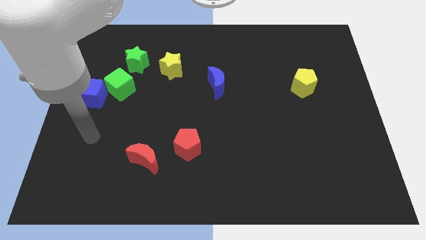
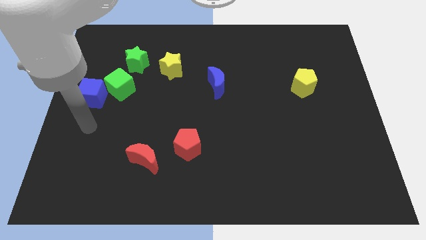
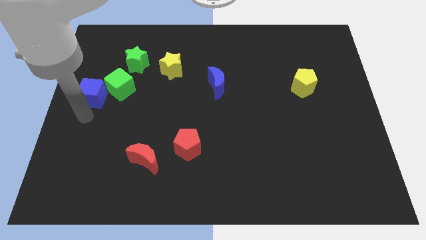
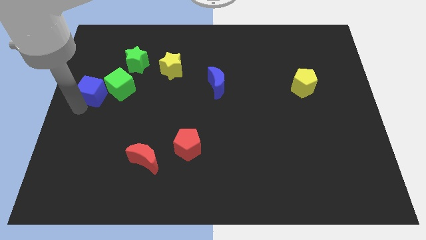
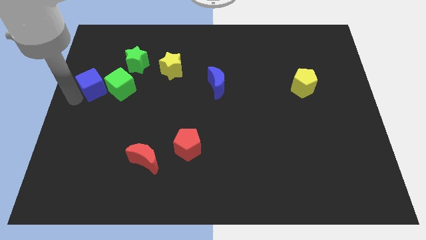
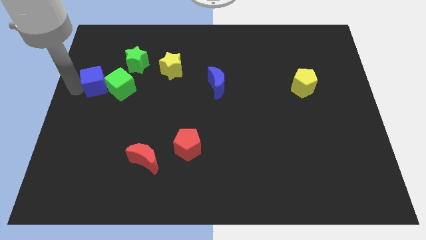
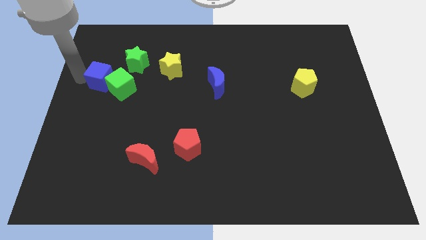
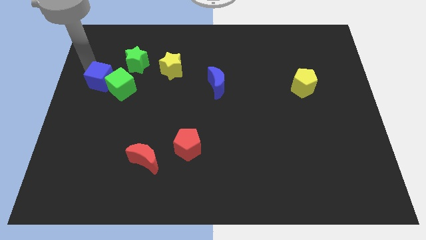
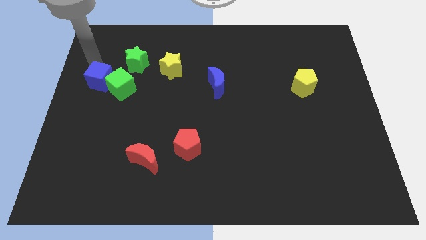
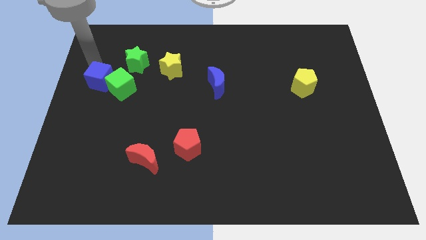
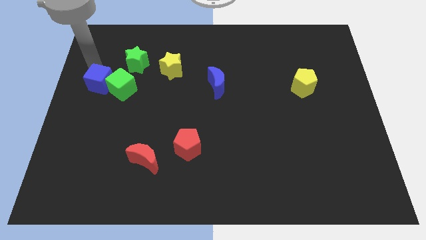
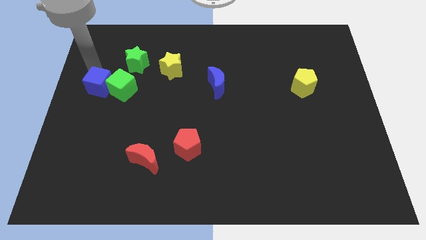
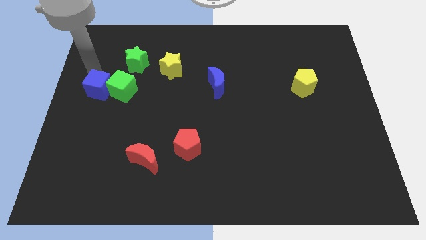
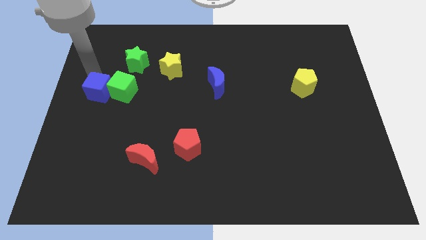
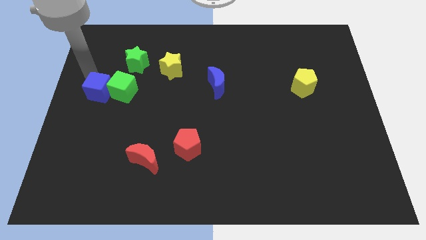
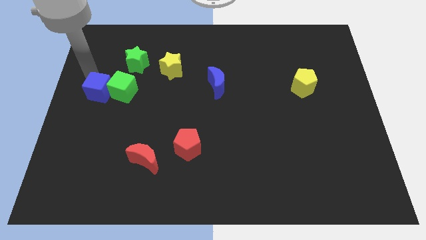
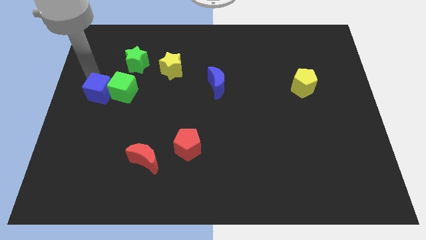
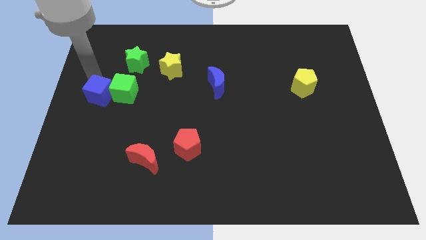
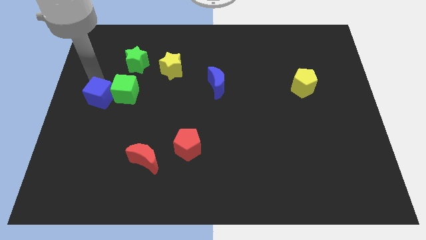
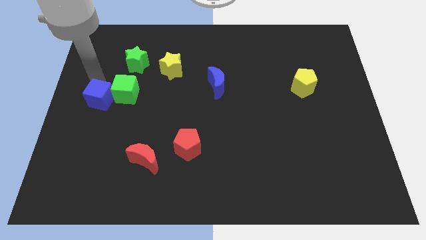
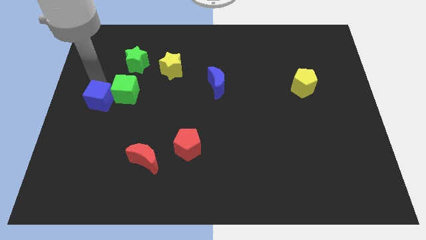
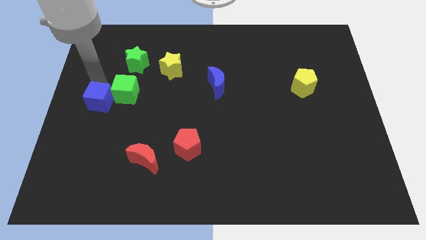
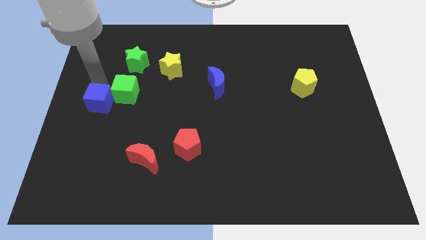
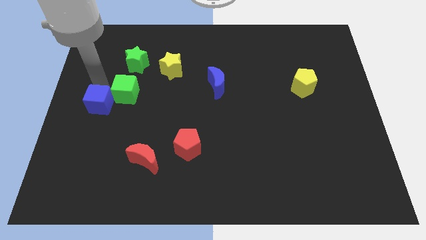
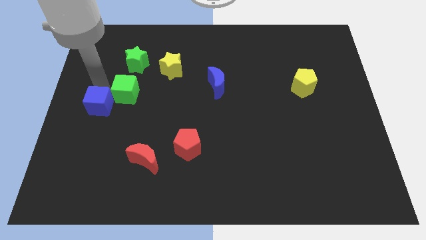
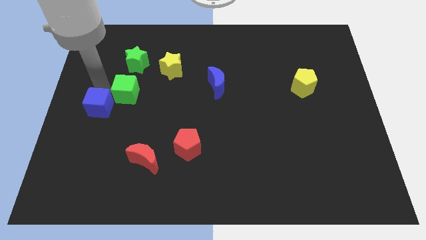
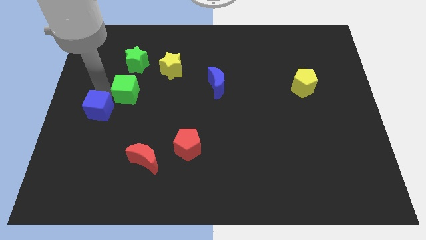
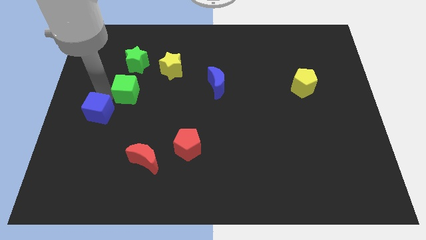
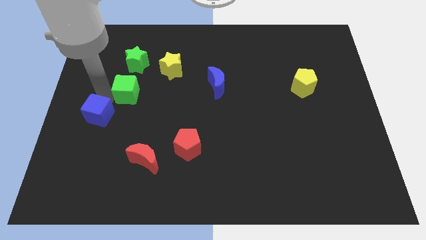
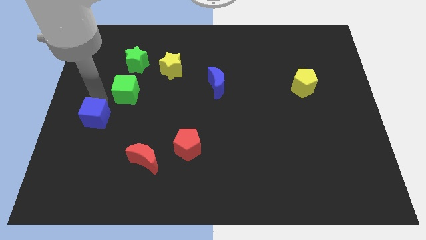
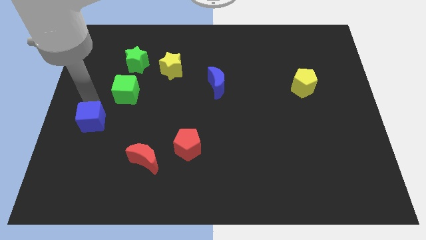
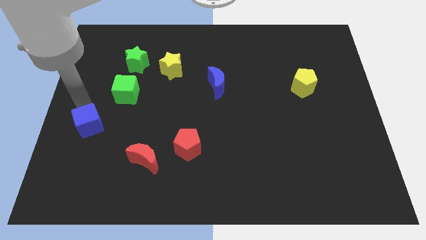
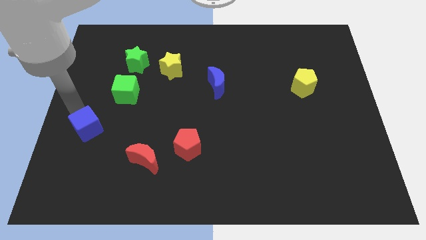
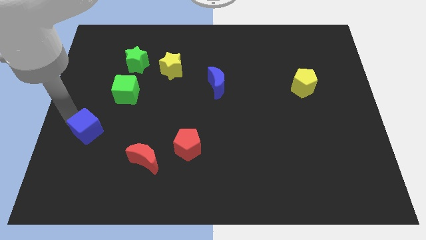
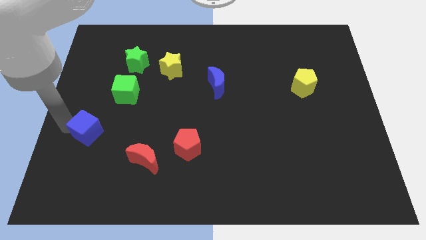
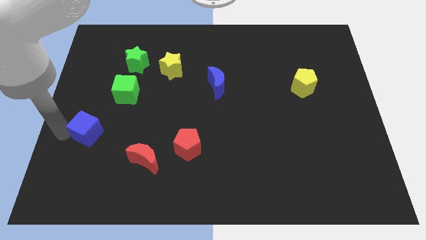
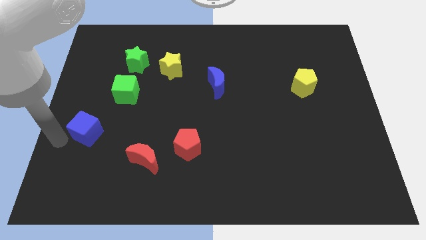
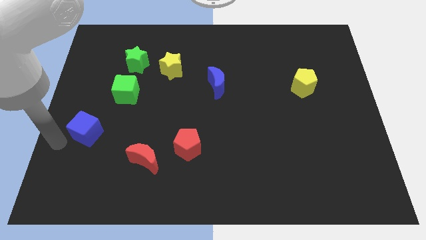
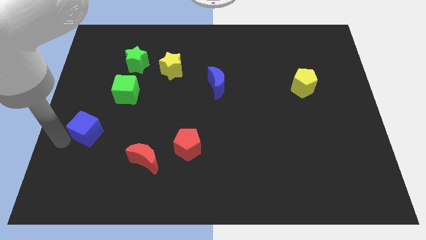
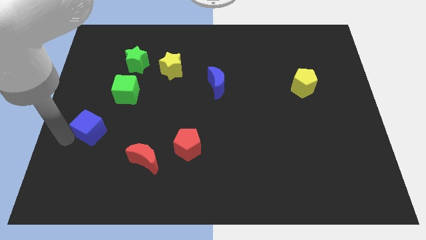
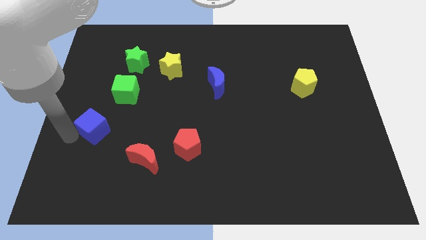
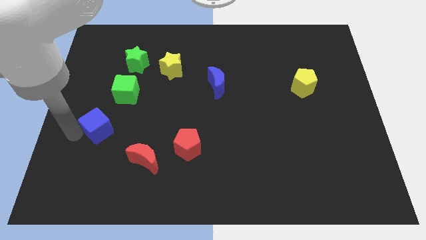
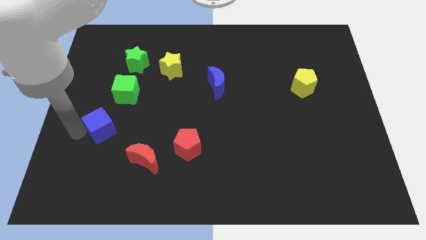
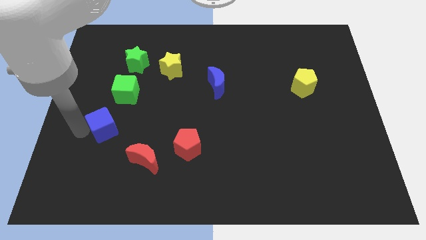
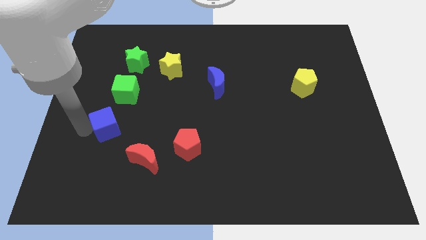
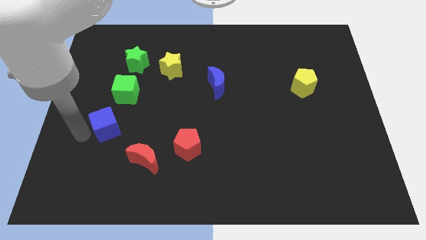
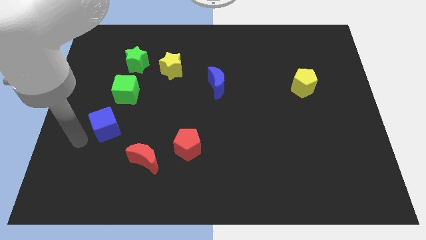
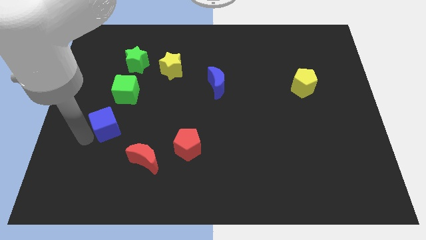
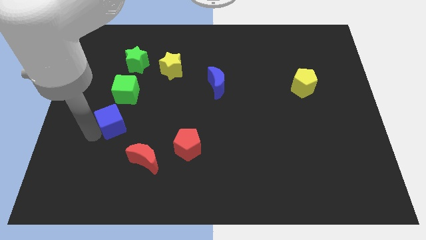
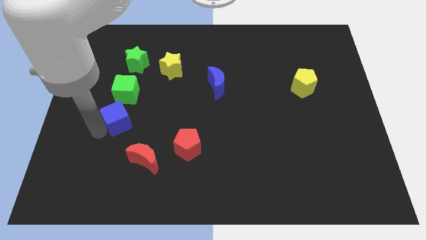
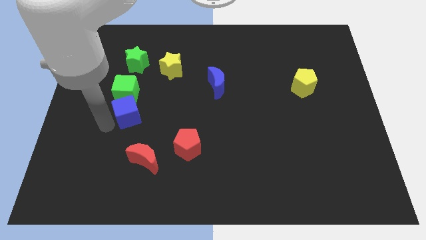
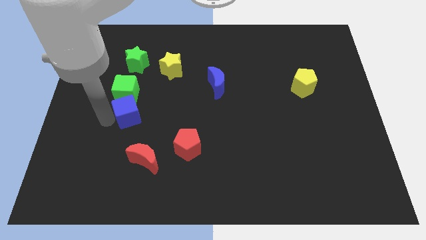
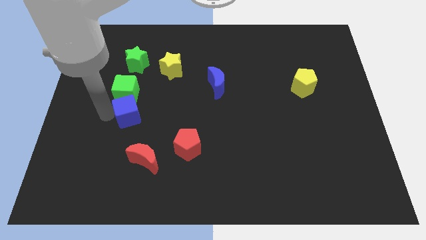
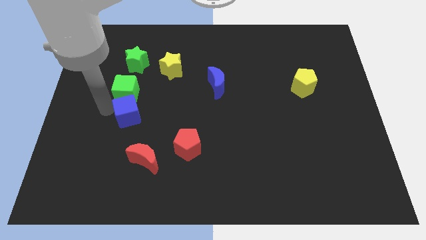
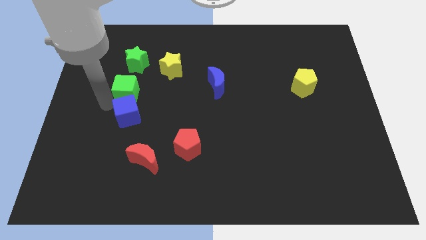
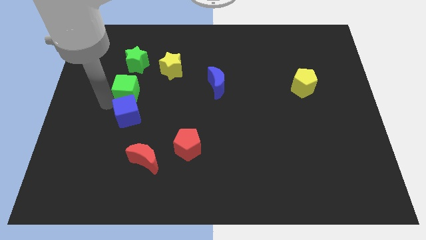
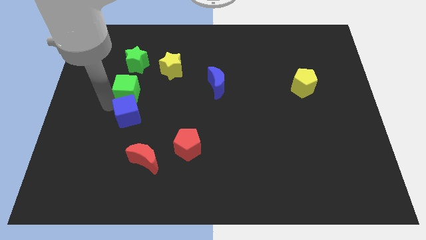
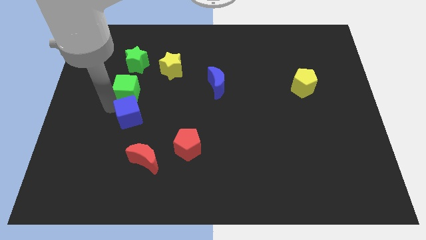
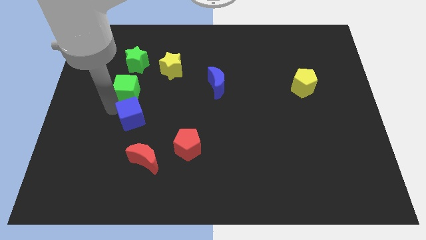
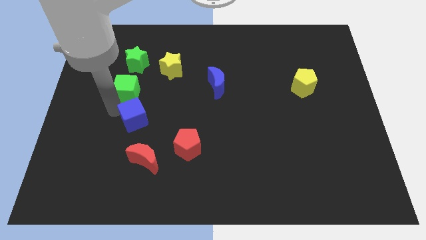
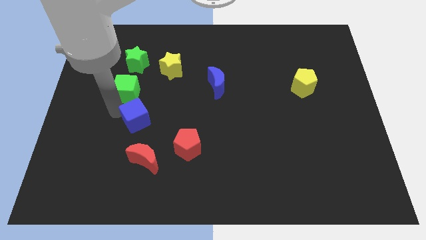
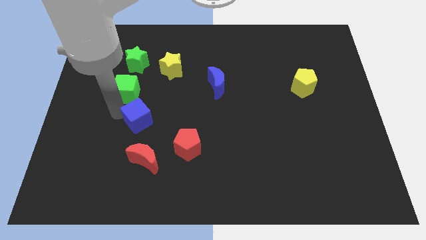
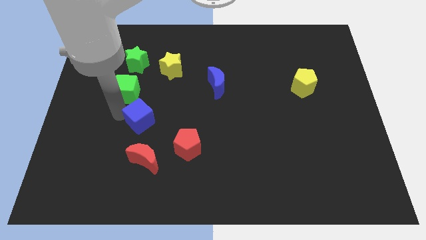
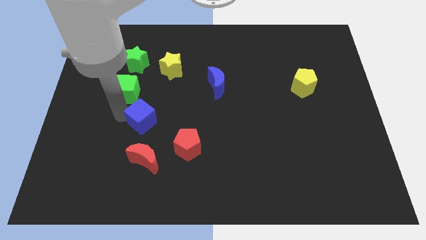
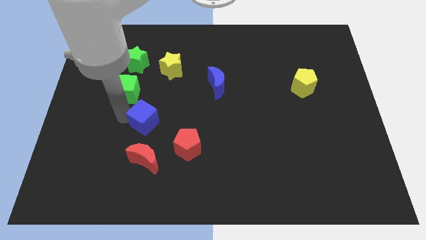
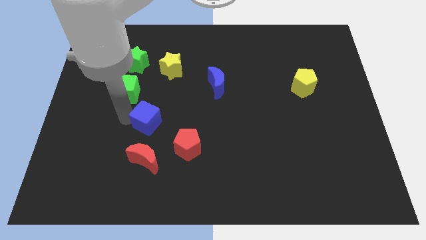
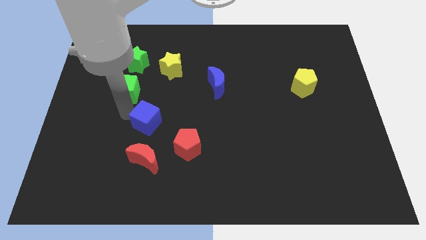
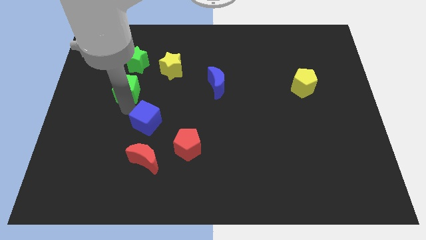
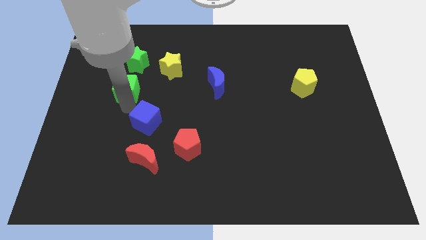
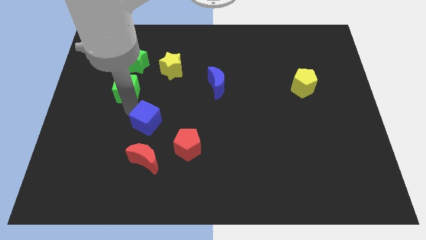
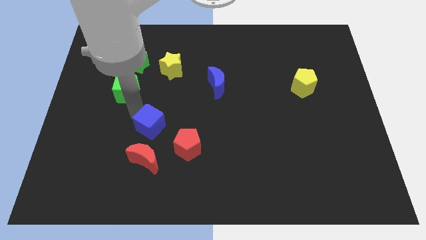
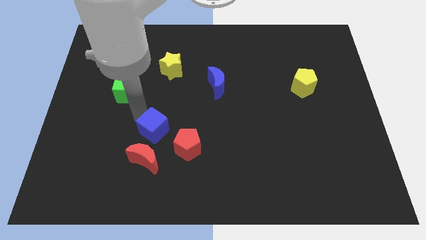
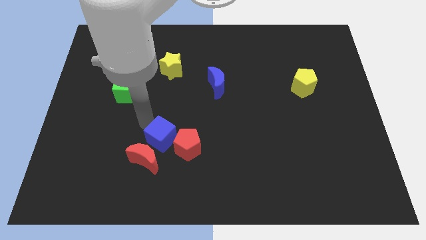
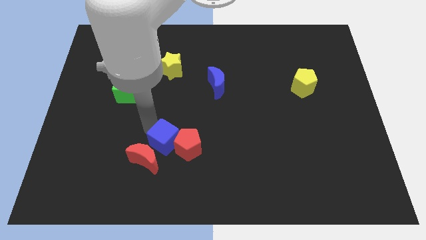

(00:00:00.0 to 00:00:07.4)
put the blue cube to the red pentagon
